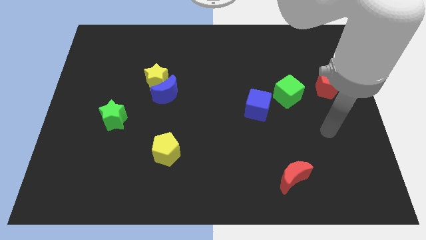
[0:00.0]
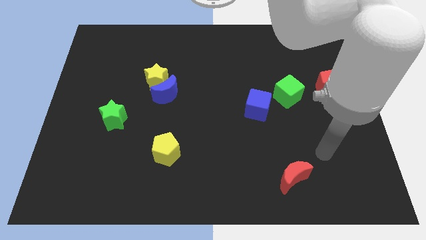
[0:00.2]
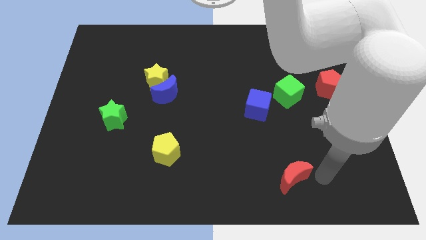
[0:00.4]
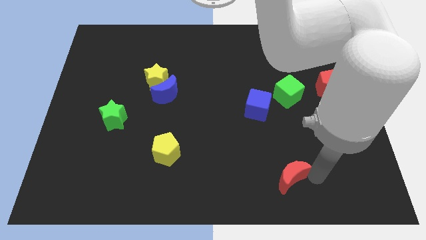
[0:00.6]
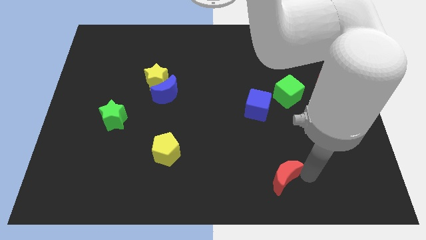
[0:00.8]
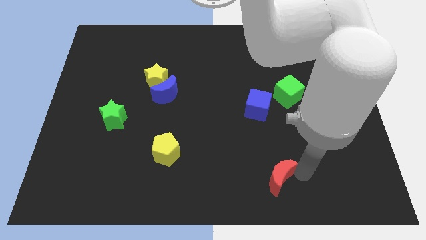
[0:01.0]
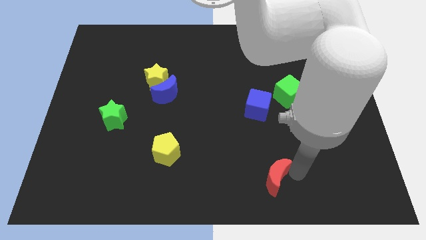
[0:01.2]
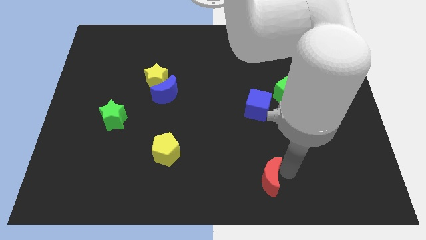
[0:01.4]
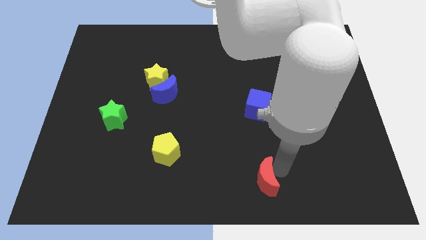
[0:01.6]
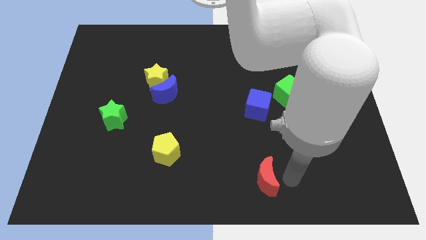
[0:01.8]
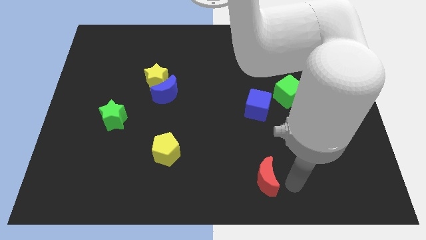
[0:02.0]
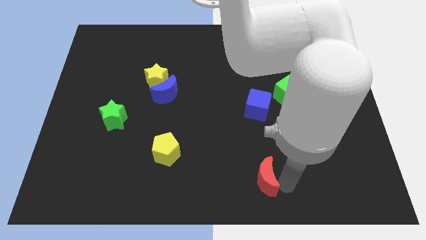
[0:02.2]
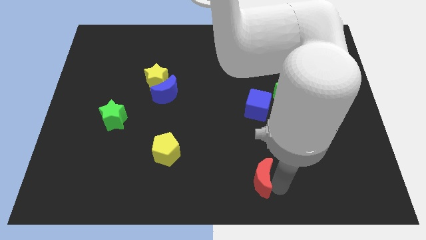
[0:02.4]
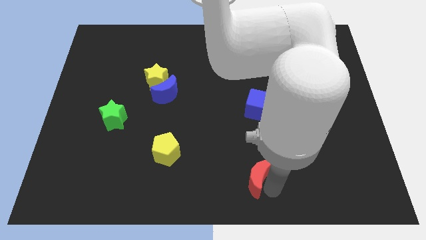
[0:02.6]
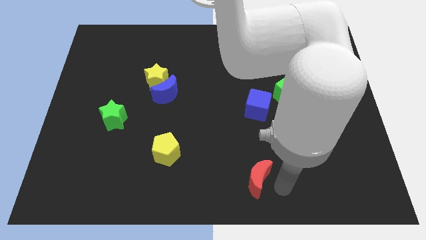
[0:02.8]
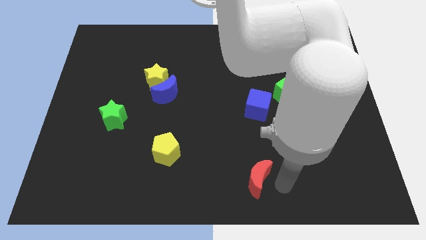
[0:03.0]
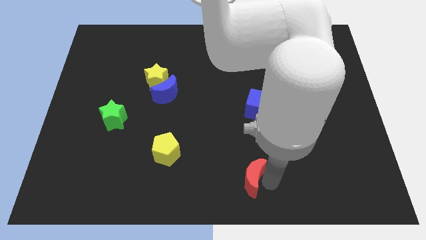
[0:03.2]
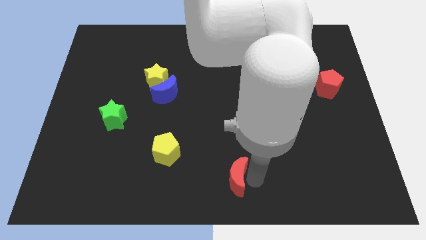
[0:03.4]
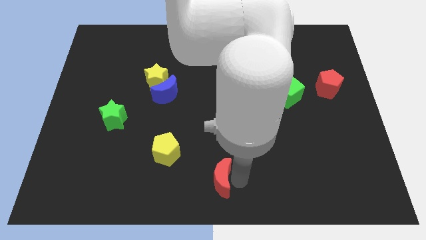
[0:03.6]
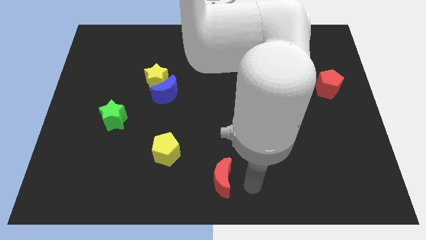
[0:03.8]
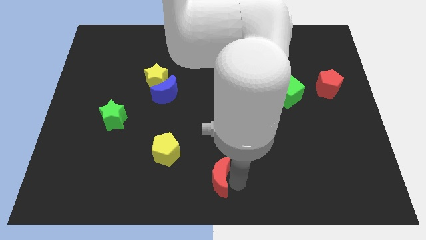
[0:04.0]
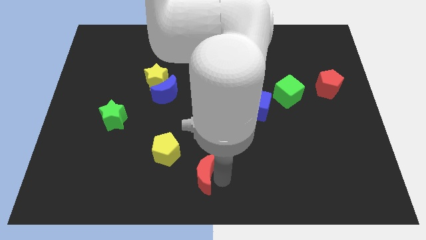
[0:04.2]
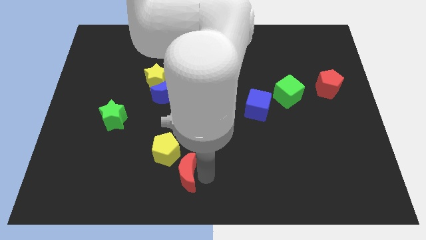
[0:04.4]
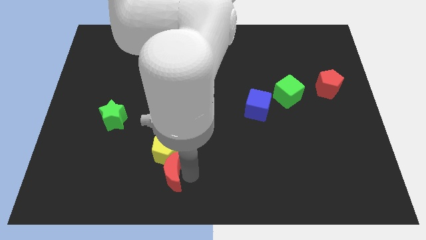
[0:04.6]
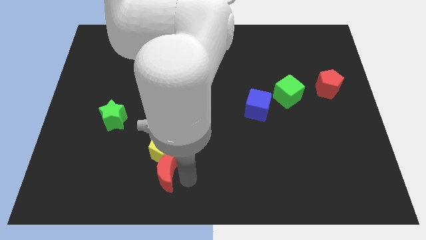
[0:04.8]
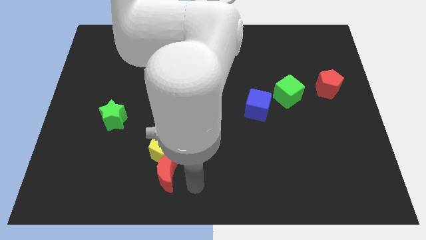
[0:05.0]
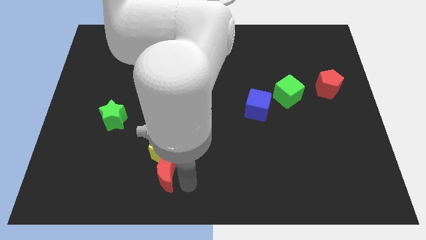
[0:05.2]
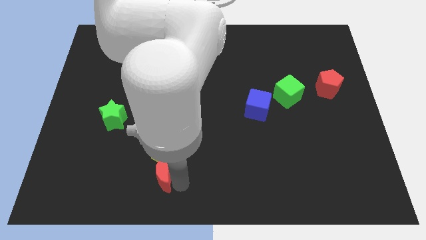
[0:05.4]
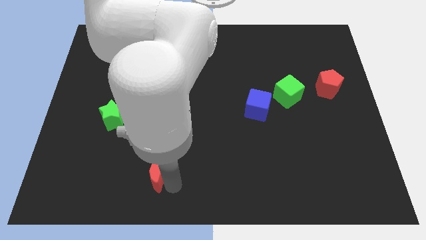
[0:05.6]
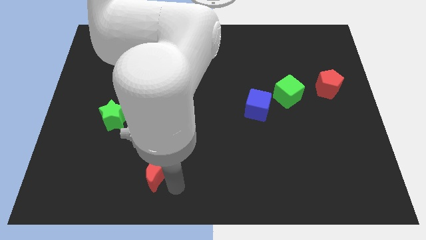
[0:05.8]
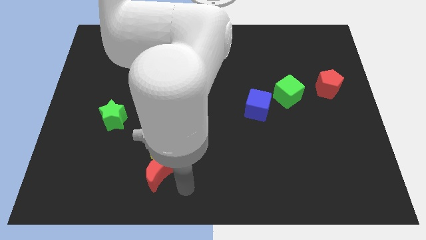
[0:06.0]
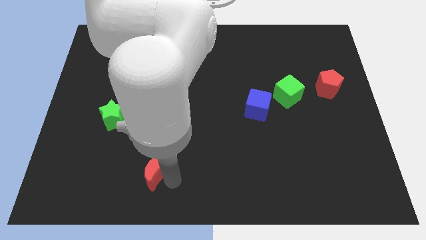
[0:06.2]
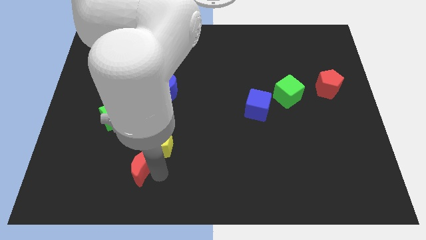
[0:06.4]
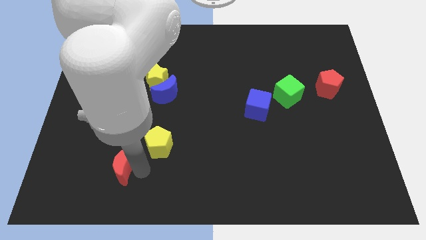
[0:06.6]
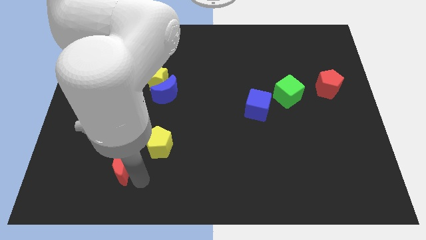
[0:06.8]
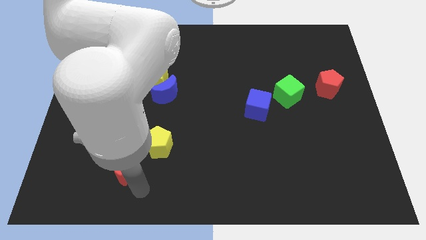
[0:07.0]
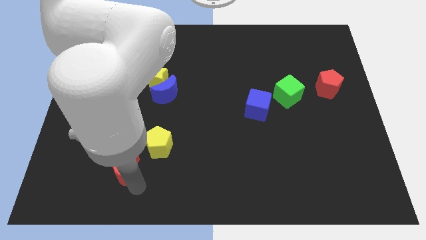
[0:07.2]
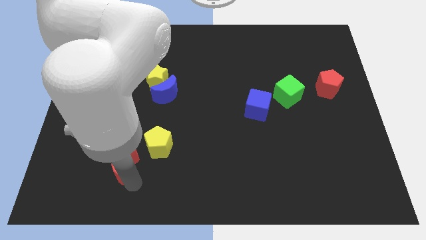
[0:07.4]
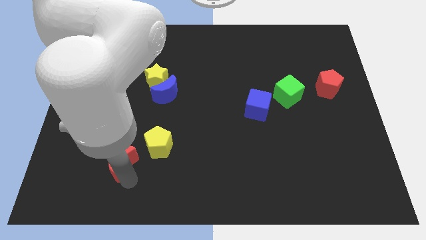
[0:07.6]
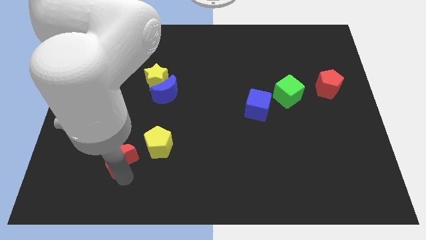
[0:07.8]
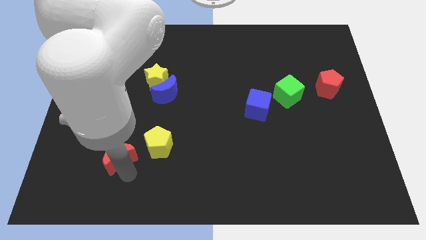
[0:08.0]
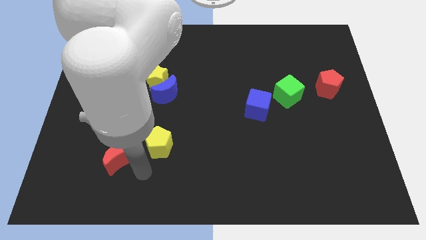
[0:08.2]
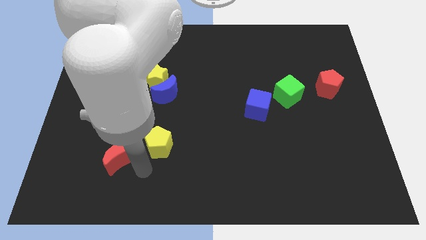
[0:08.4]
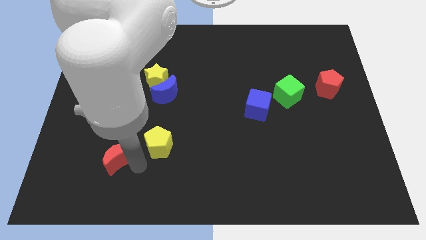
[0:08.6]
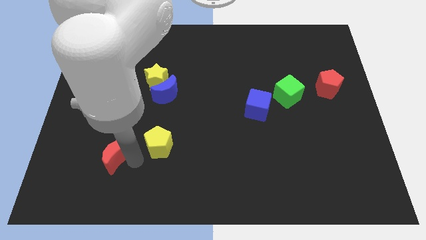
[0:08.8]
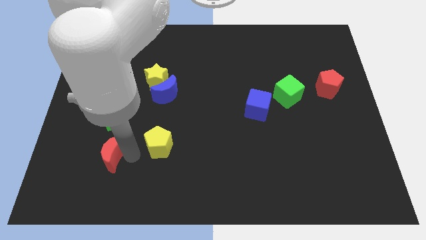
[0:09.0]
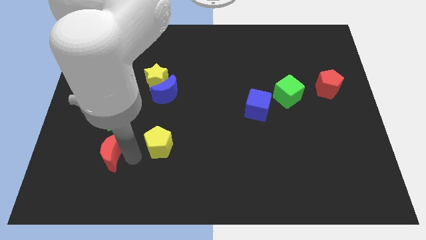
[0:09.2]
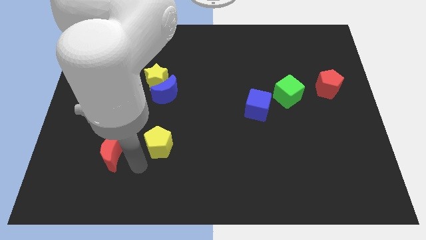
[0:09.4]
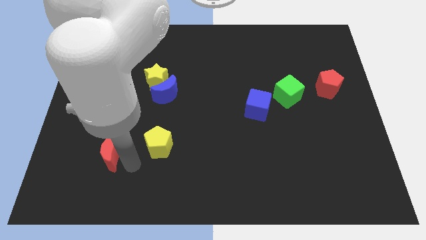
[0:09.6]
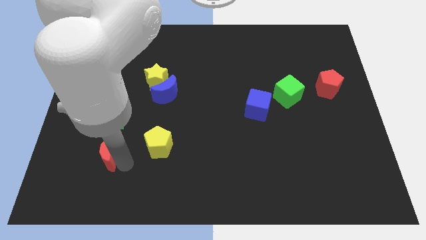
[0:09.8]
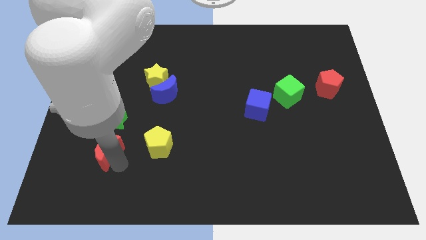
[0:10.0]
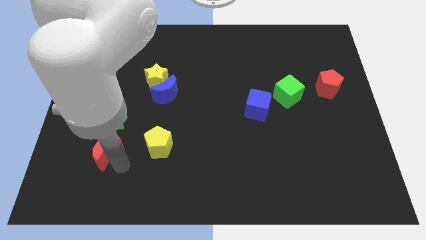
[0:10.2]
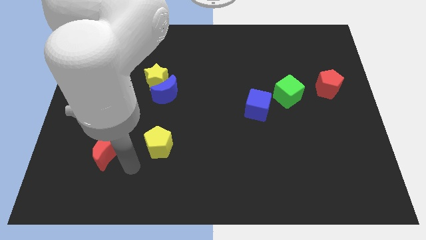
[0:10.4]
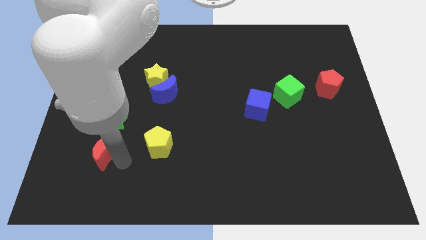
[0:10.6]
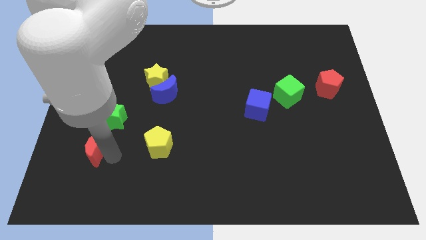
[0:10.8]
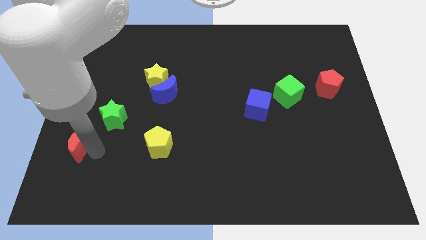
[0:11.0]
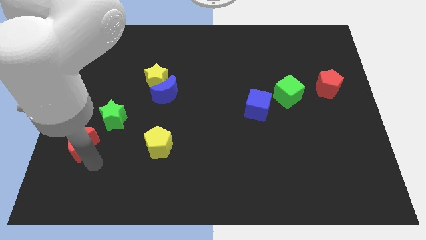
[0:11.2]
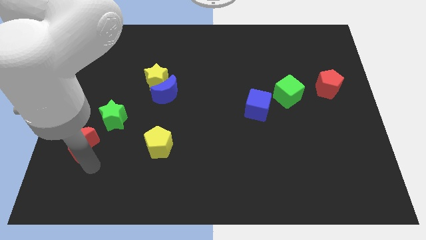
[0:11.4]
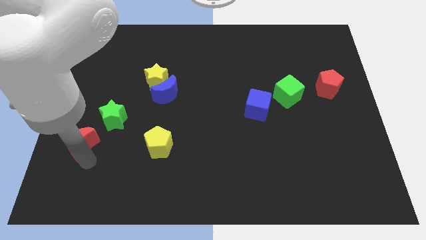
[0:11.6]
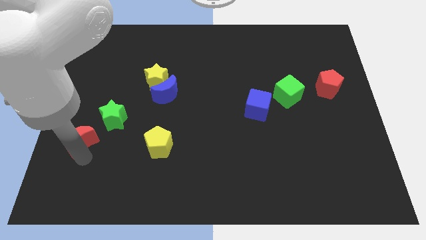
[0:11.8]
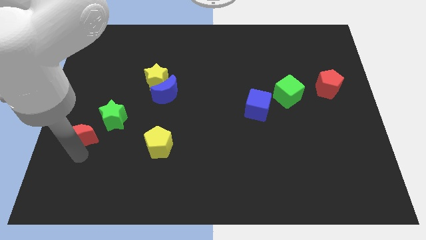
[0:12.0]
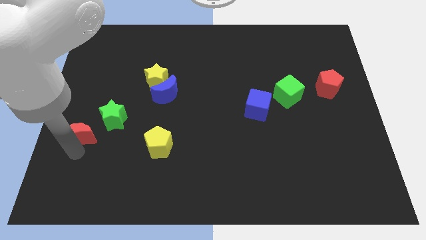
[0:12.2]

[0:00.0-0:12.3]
put the red moon to the left side

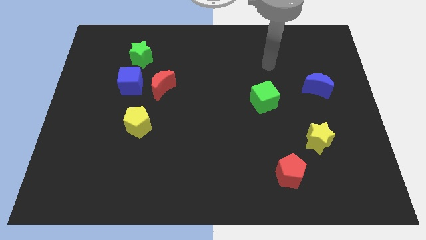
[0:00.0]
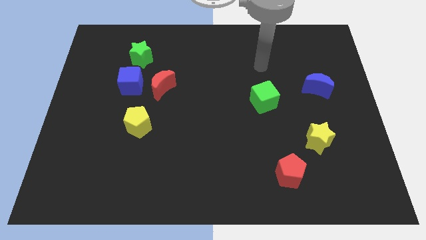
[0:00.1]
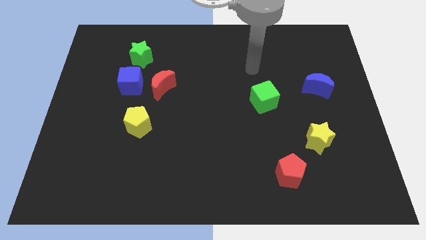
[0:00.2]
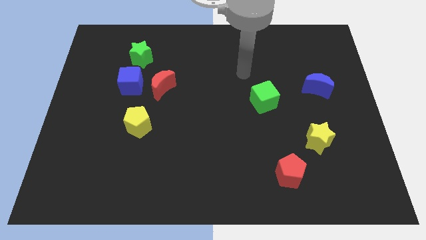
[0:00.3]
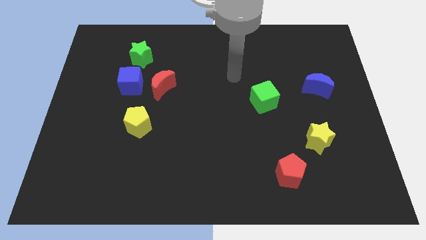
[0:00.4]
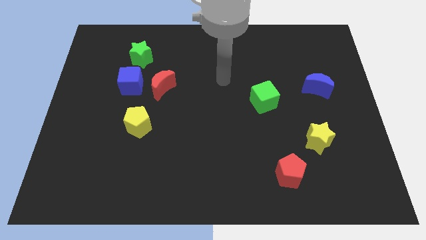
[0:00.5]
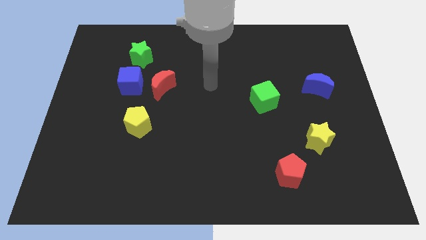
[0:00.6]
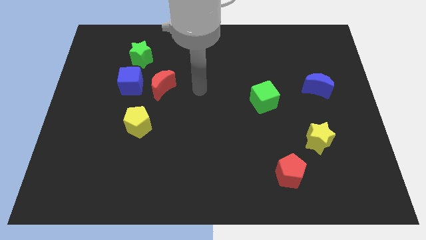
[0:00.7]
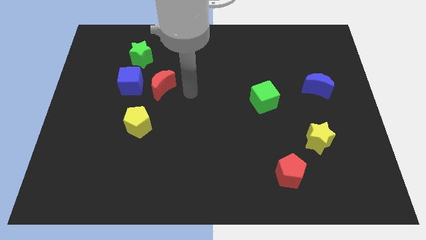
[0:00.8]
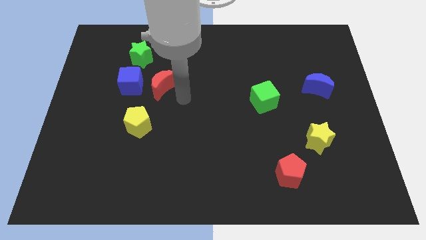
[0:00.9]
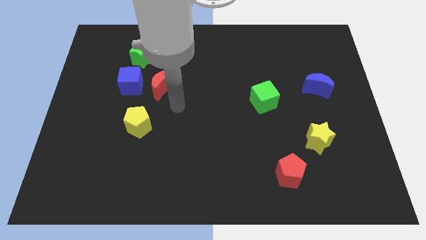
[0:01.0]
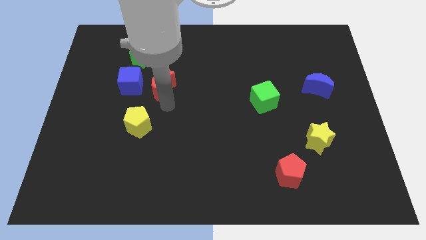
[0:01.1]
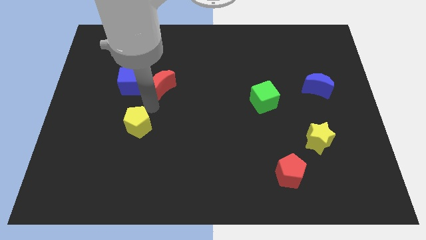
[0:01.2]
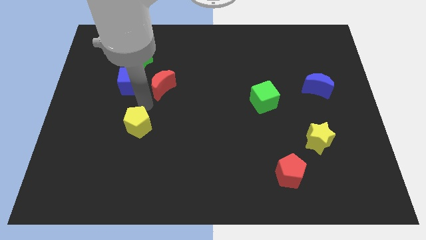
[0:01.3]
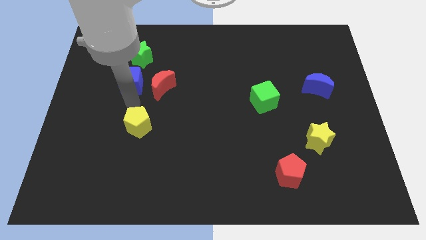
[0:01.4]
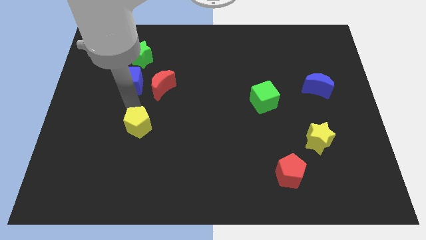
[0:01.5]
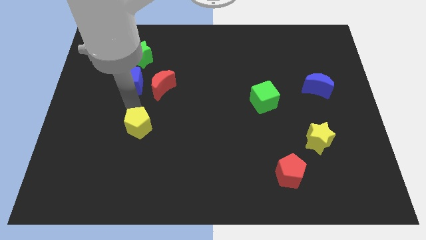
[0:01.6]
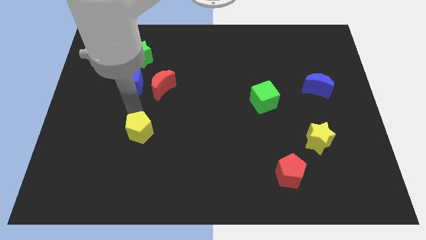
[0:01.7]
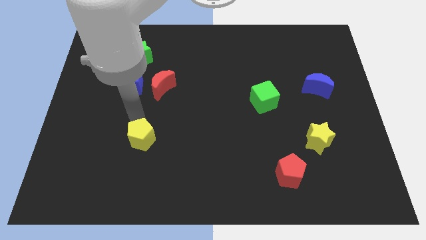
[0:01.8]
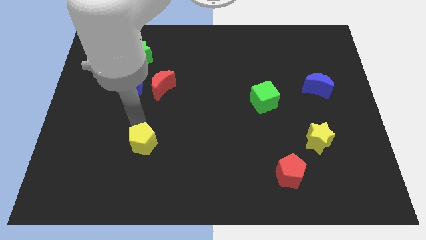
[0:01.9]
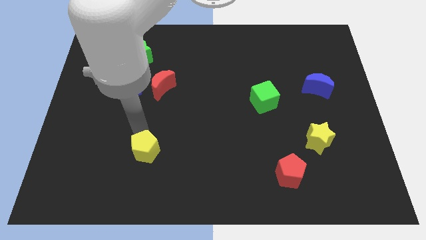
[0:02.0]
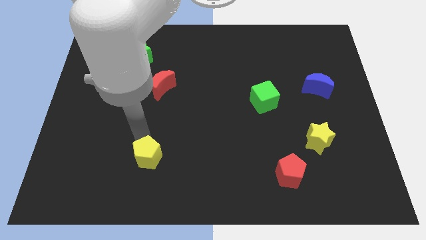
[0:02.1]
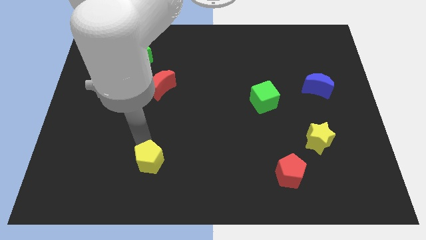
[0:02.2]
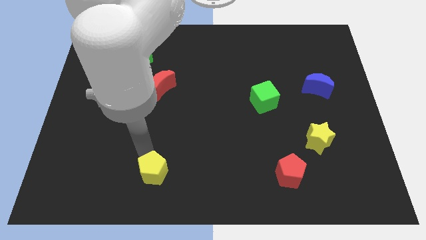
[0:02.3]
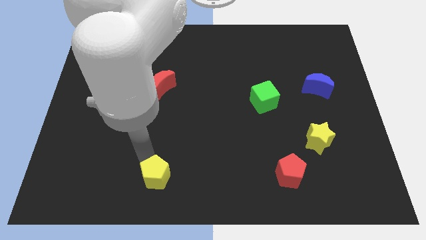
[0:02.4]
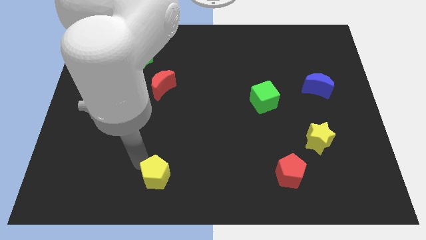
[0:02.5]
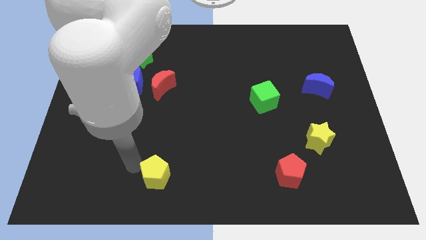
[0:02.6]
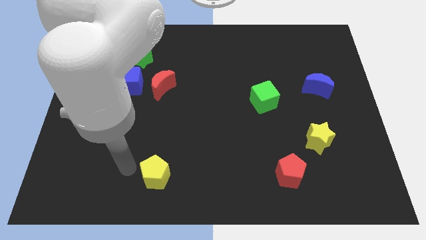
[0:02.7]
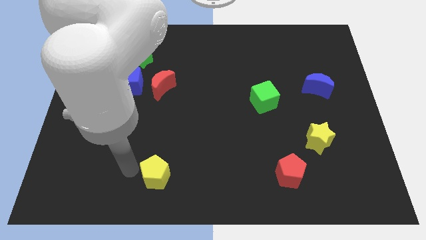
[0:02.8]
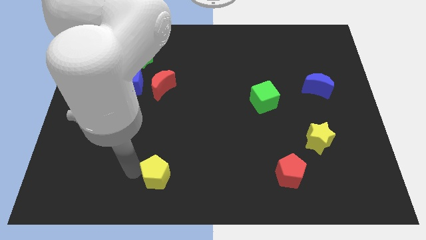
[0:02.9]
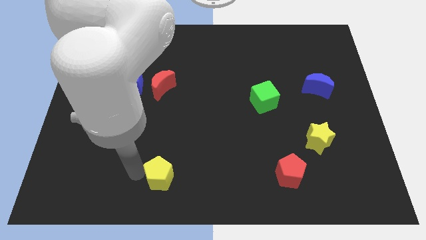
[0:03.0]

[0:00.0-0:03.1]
slide the yellow pentagon to the bottom
